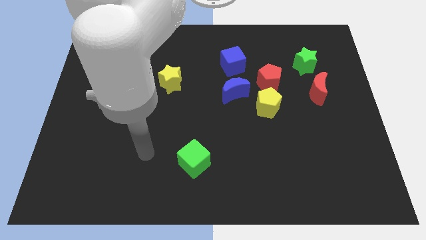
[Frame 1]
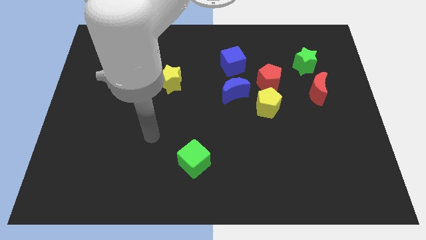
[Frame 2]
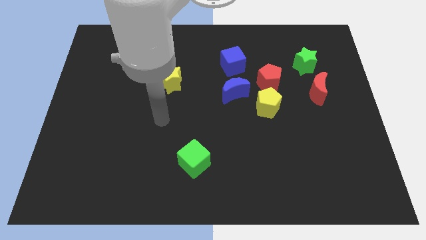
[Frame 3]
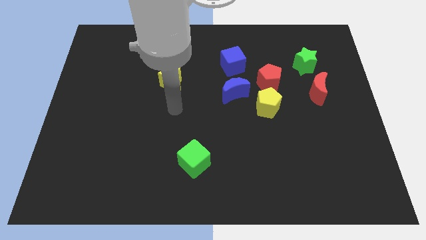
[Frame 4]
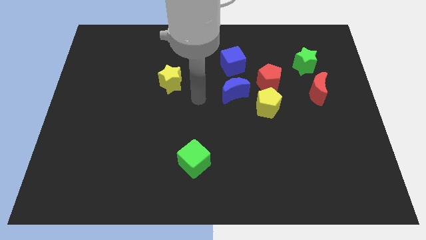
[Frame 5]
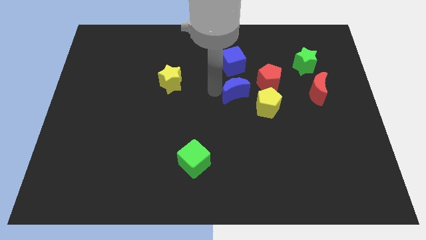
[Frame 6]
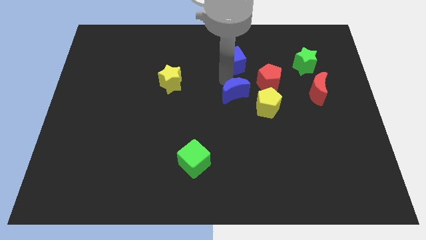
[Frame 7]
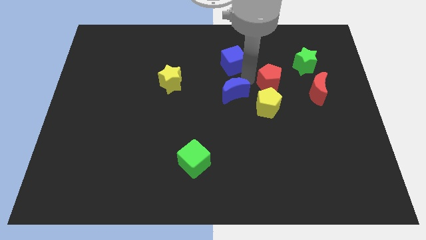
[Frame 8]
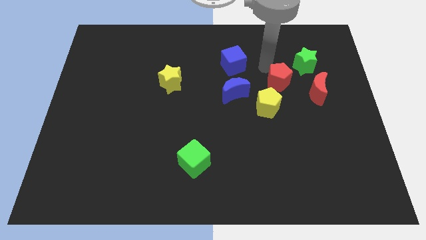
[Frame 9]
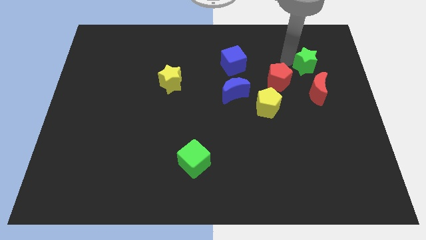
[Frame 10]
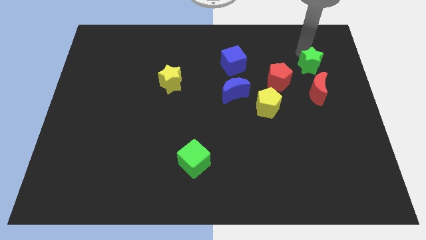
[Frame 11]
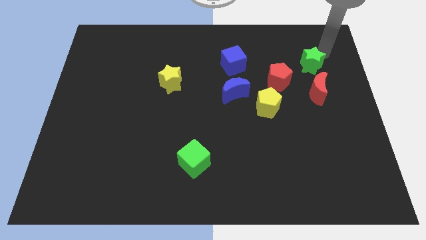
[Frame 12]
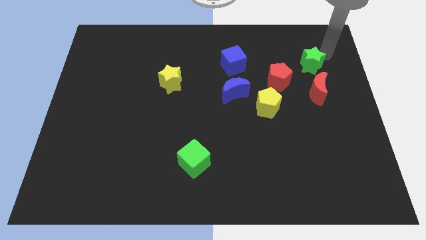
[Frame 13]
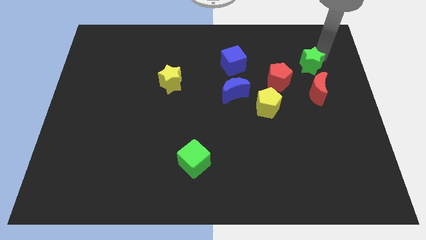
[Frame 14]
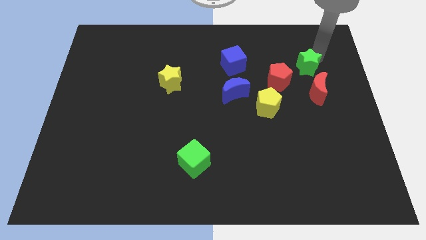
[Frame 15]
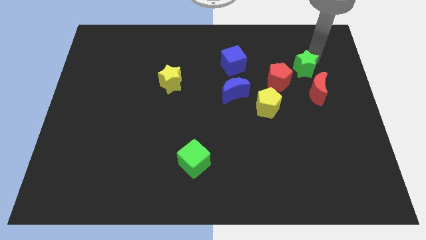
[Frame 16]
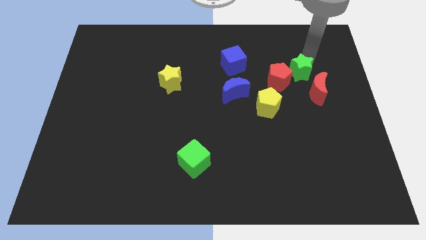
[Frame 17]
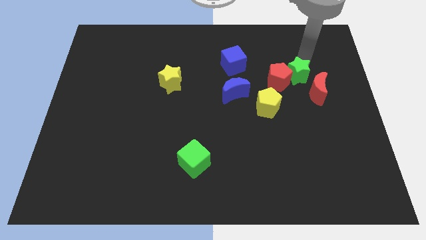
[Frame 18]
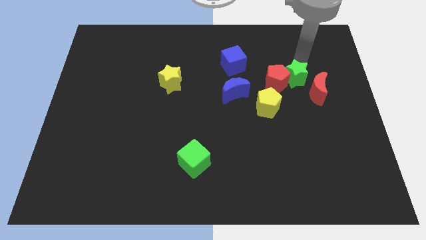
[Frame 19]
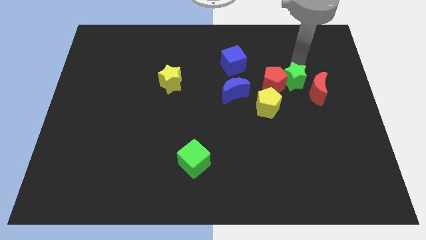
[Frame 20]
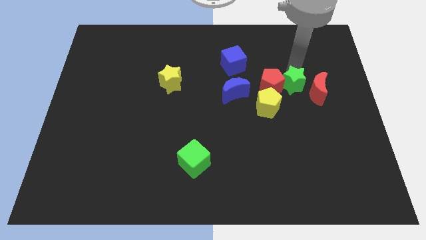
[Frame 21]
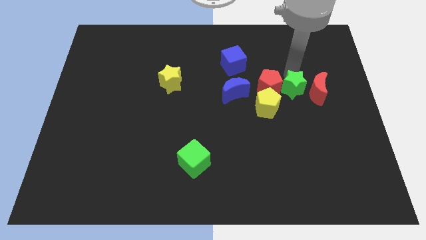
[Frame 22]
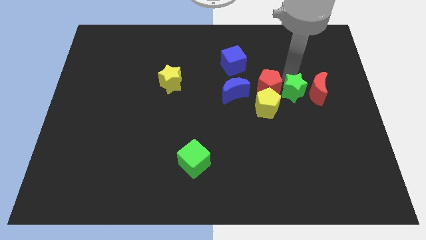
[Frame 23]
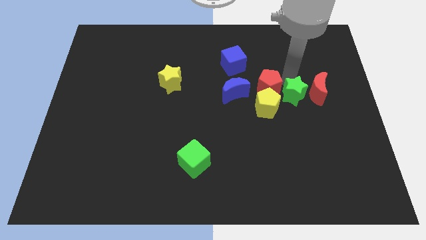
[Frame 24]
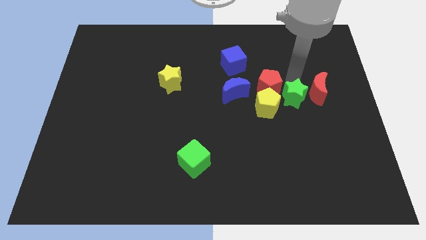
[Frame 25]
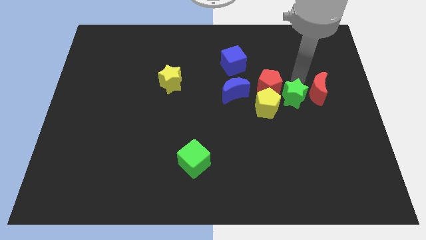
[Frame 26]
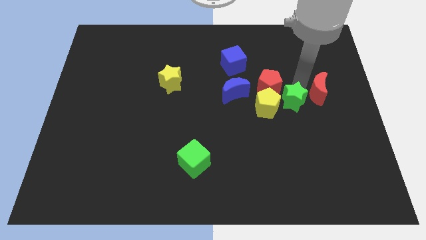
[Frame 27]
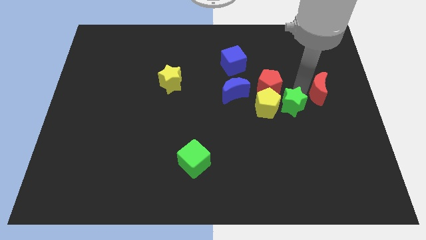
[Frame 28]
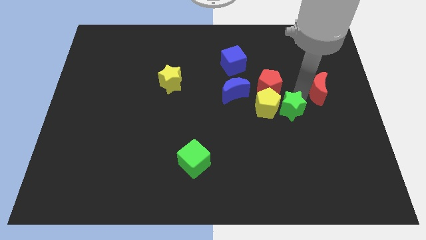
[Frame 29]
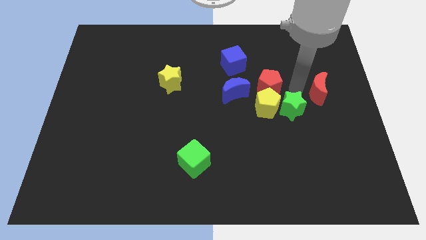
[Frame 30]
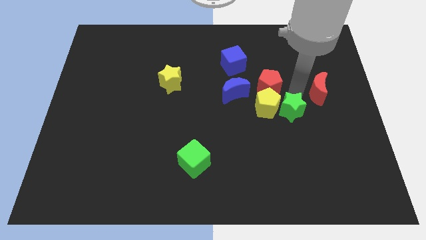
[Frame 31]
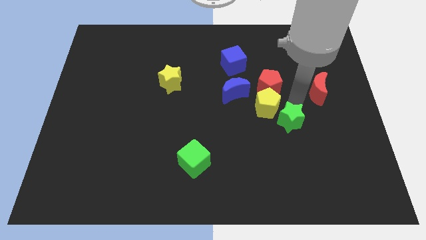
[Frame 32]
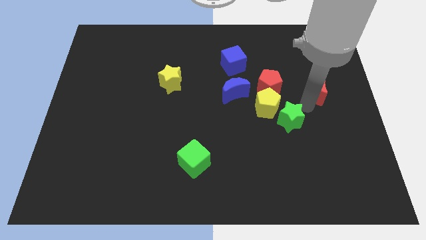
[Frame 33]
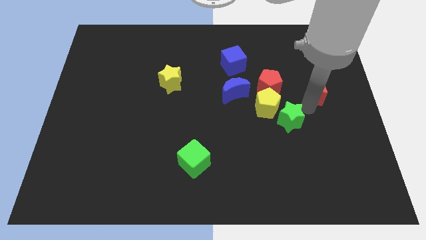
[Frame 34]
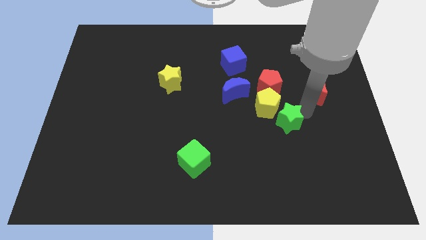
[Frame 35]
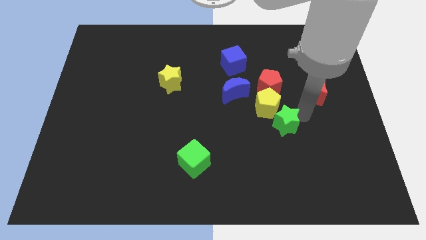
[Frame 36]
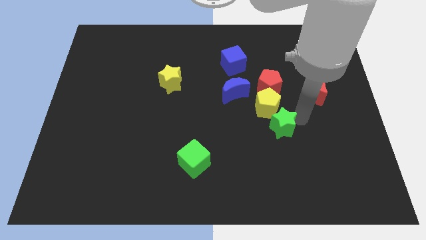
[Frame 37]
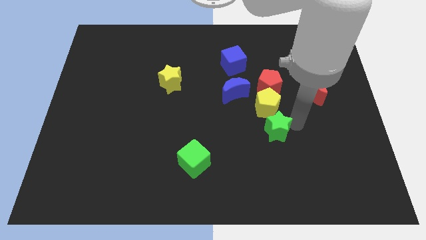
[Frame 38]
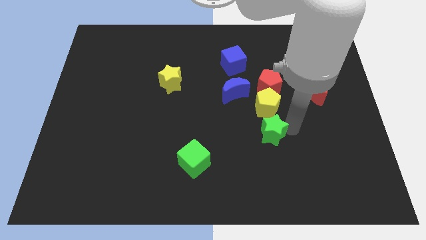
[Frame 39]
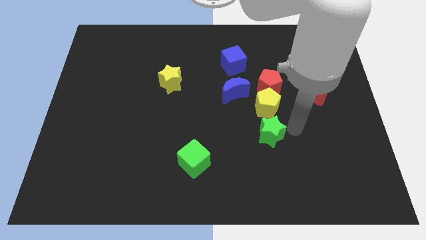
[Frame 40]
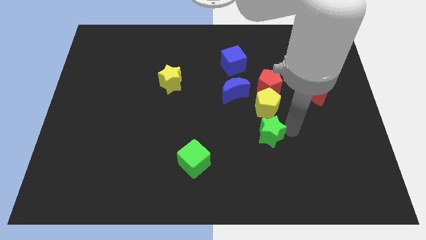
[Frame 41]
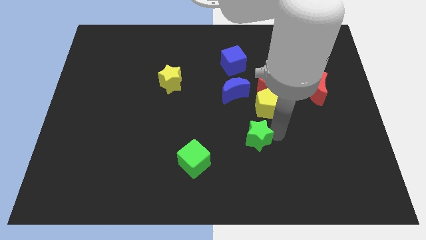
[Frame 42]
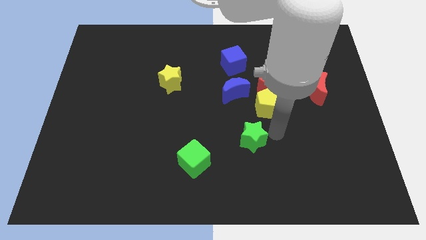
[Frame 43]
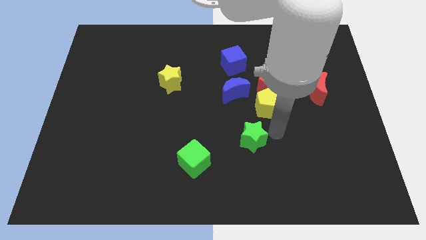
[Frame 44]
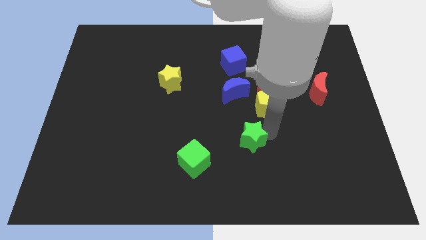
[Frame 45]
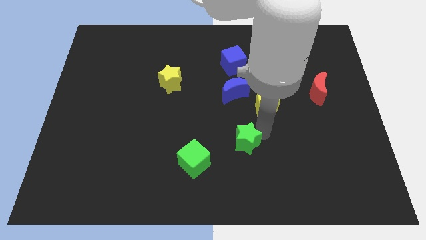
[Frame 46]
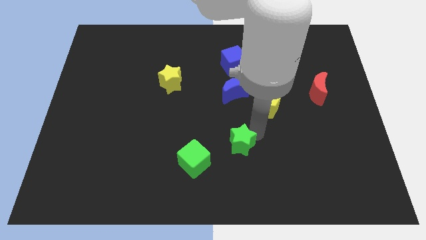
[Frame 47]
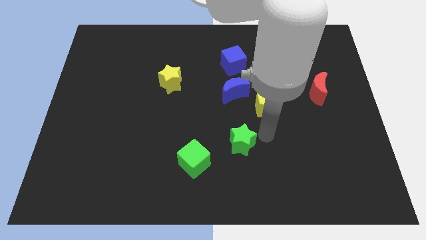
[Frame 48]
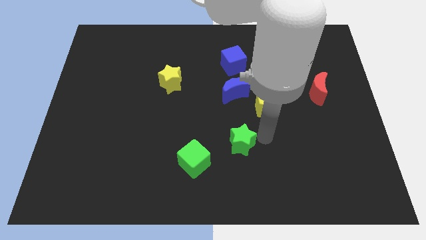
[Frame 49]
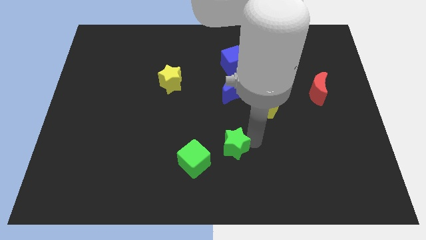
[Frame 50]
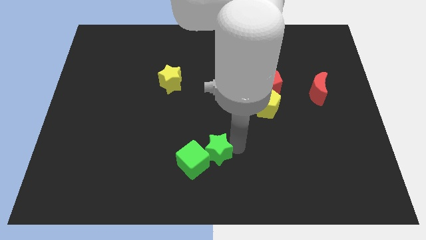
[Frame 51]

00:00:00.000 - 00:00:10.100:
push the green star to the green cube

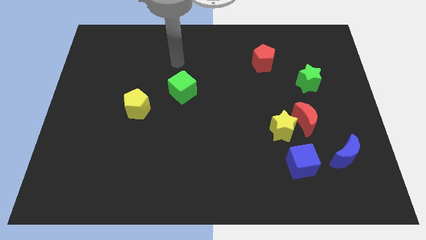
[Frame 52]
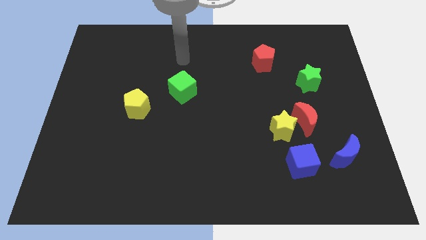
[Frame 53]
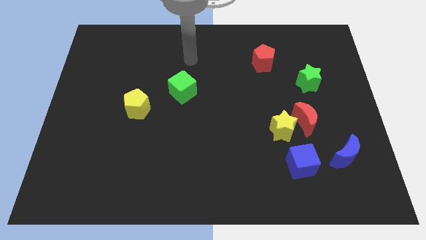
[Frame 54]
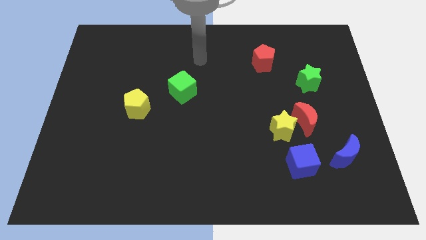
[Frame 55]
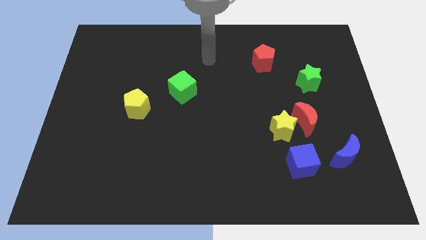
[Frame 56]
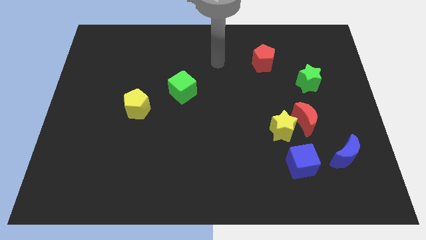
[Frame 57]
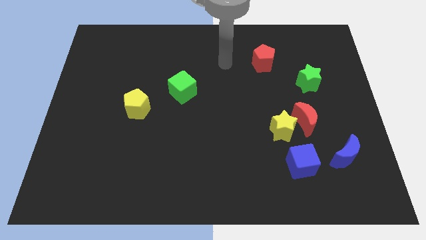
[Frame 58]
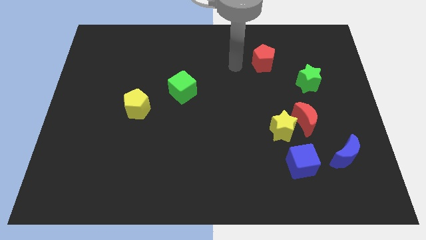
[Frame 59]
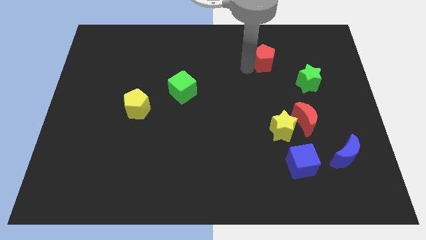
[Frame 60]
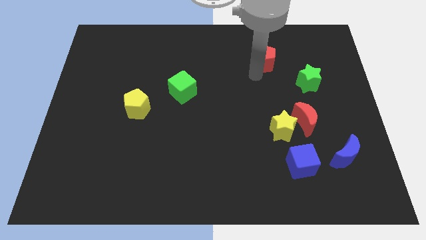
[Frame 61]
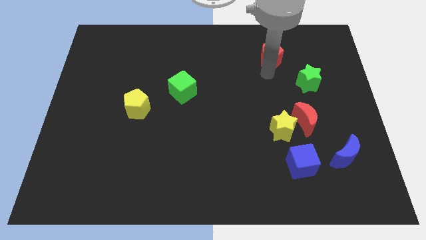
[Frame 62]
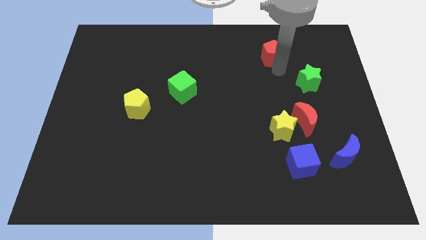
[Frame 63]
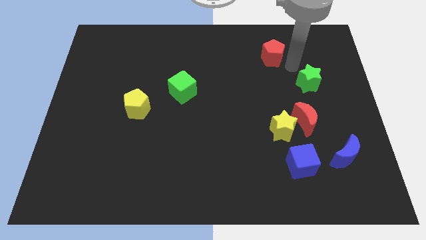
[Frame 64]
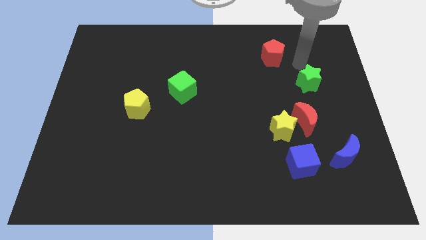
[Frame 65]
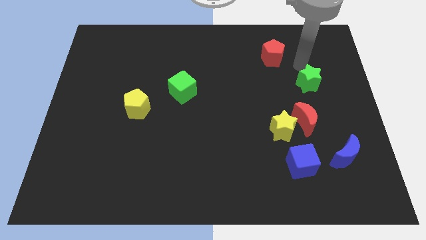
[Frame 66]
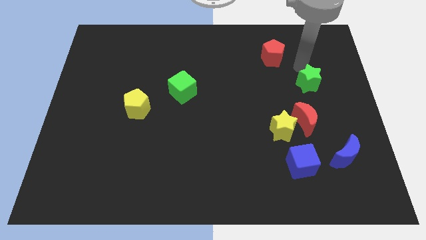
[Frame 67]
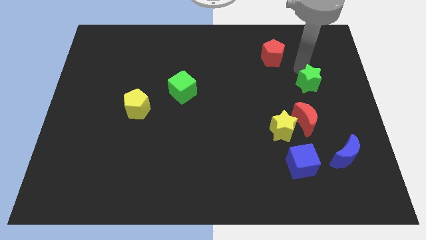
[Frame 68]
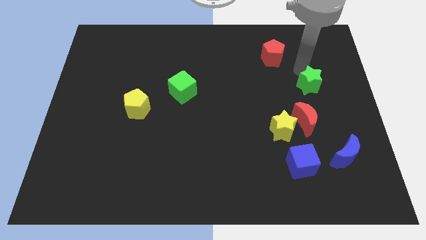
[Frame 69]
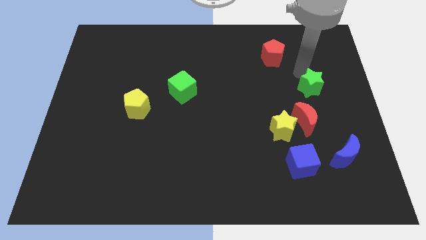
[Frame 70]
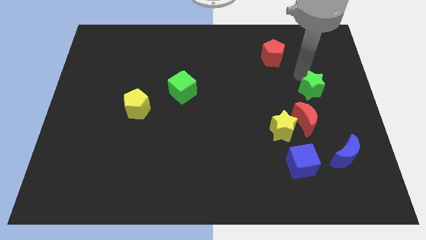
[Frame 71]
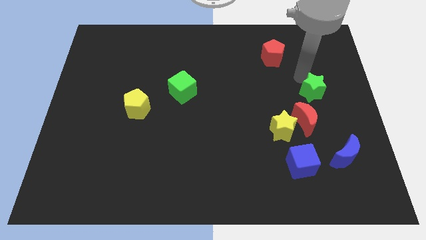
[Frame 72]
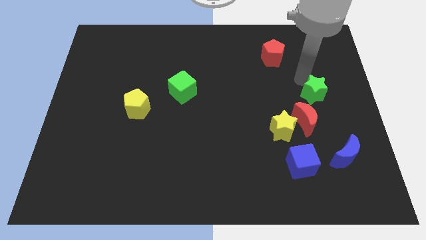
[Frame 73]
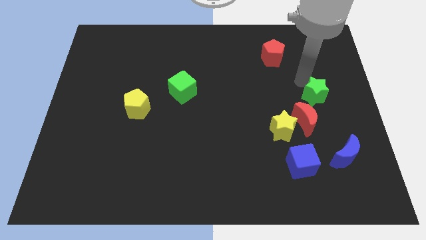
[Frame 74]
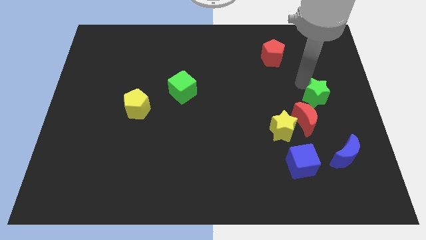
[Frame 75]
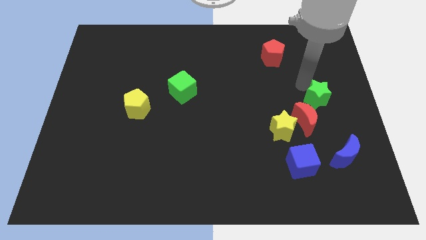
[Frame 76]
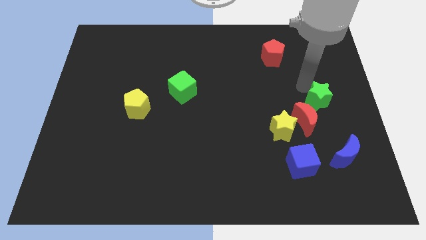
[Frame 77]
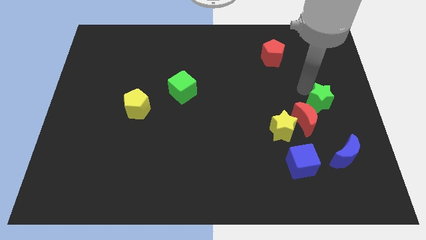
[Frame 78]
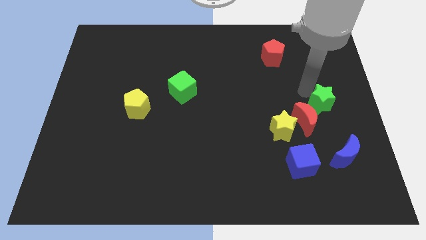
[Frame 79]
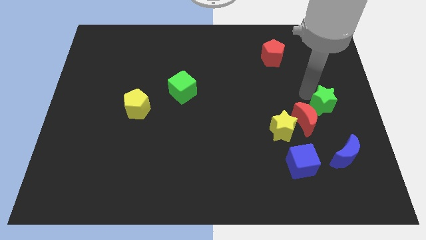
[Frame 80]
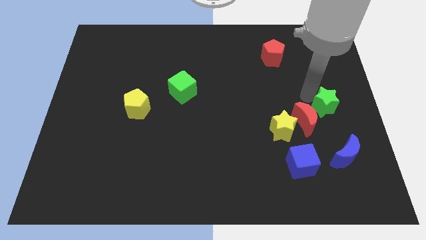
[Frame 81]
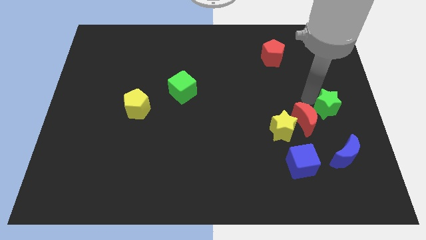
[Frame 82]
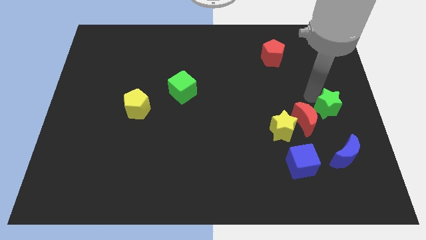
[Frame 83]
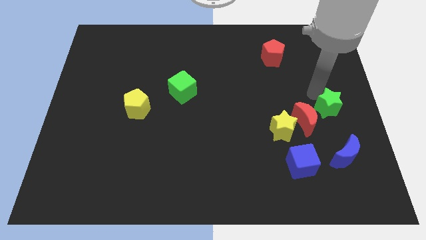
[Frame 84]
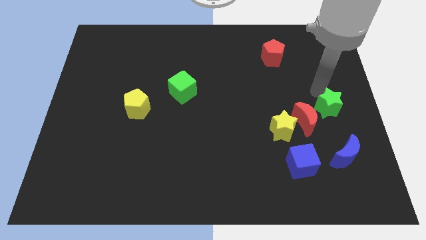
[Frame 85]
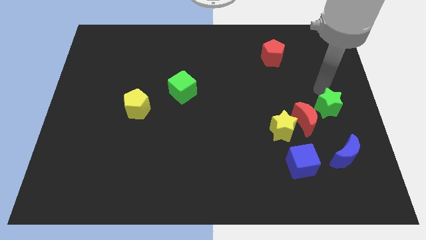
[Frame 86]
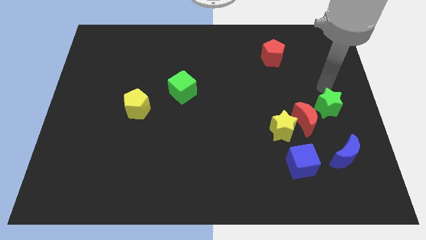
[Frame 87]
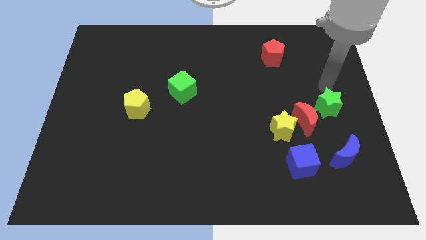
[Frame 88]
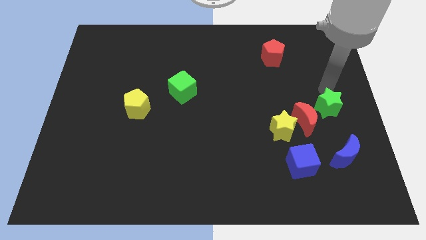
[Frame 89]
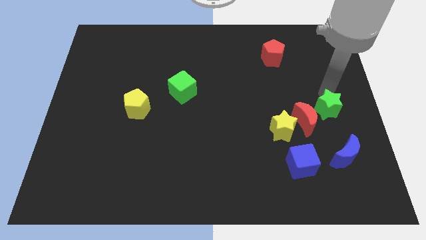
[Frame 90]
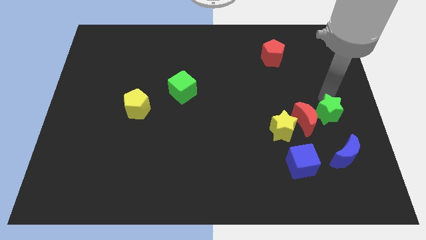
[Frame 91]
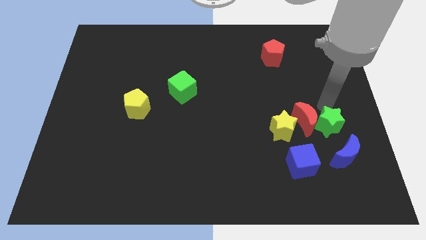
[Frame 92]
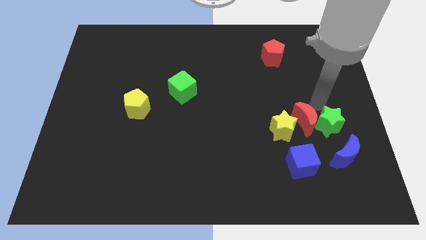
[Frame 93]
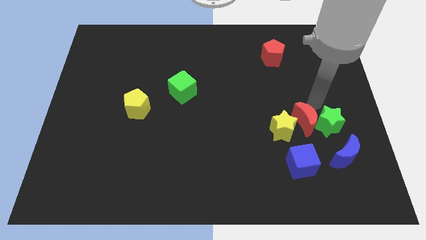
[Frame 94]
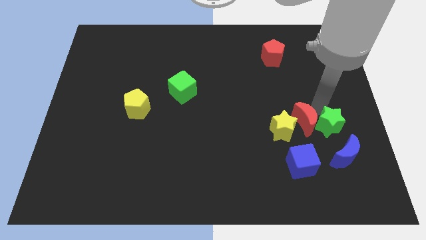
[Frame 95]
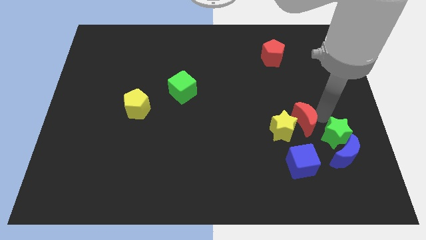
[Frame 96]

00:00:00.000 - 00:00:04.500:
push the green star next to the blue moon
